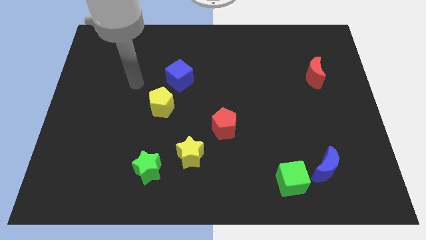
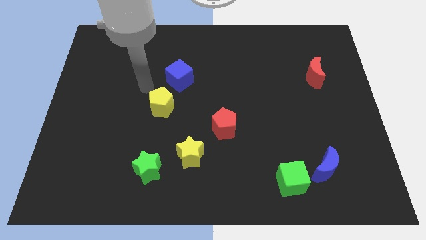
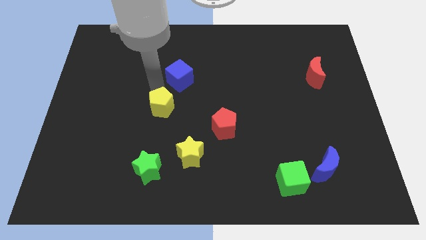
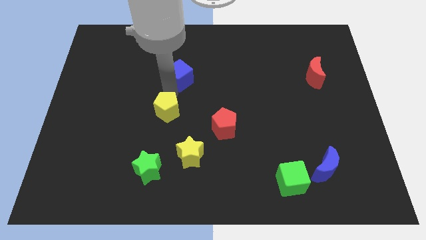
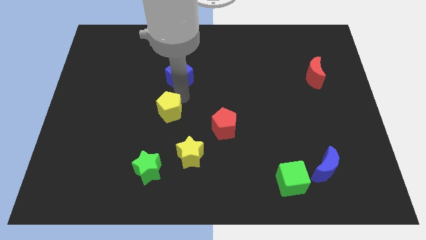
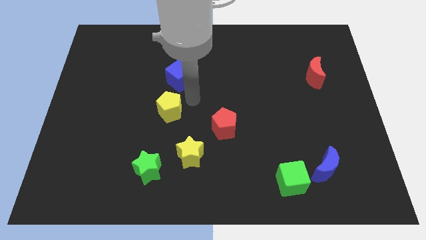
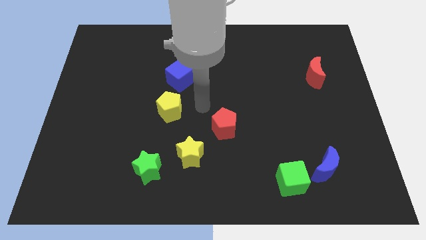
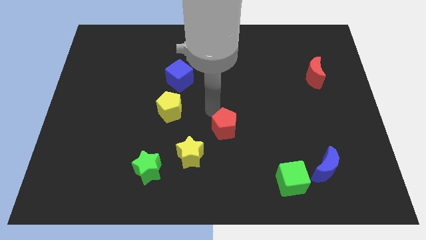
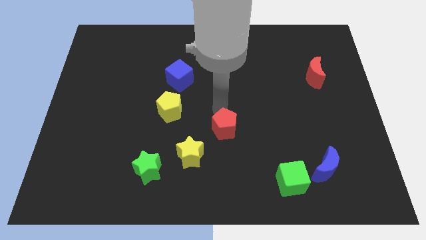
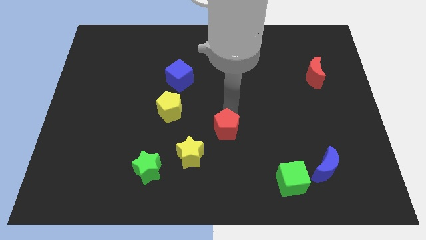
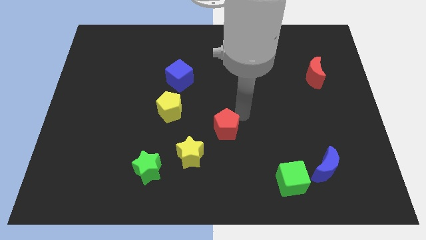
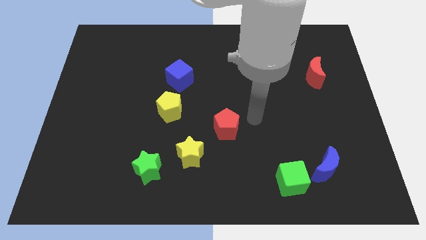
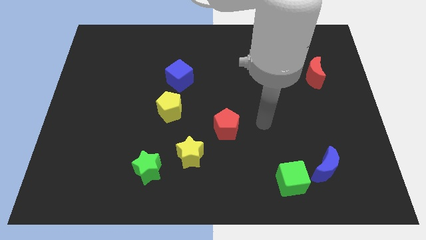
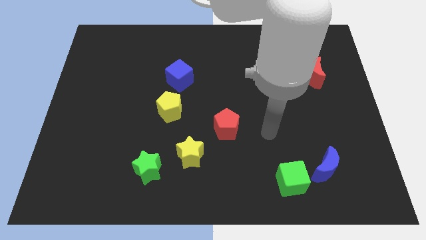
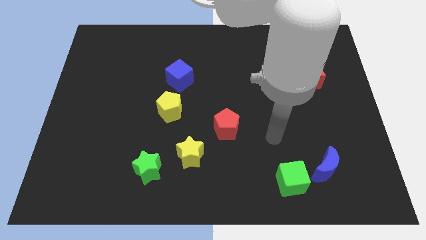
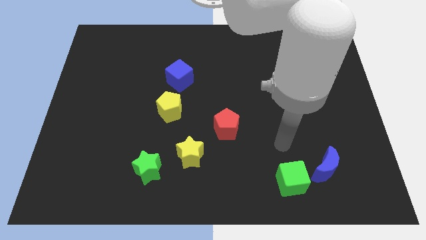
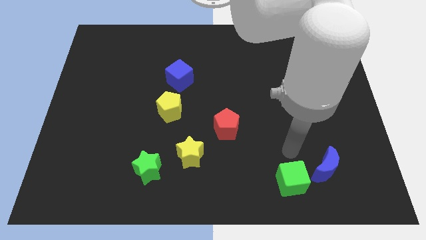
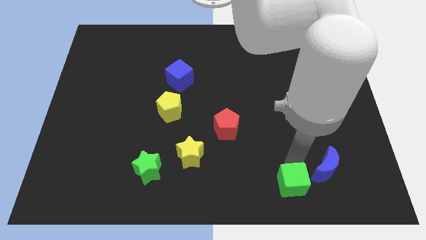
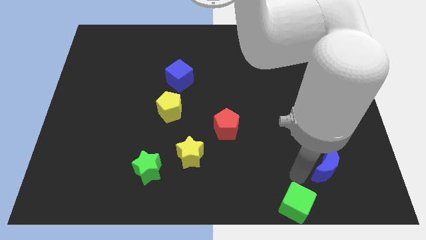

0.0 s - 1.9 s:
separate the blue moon from the green cube

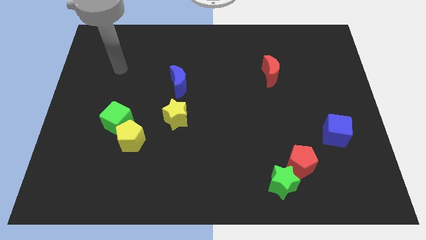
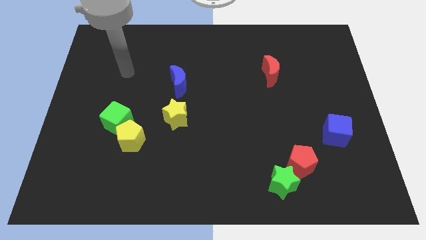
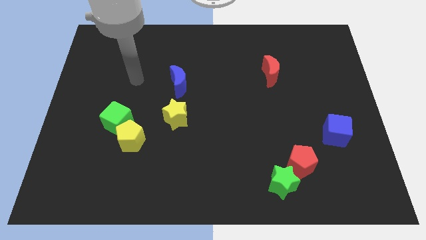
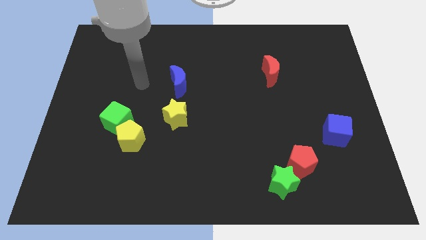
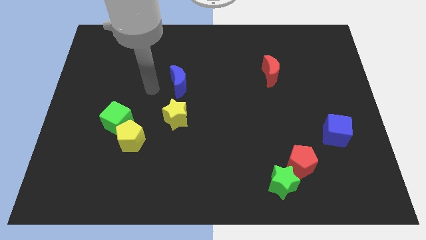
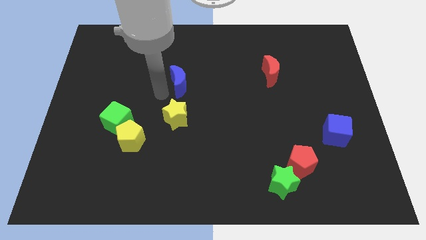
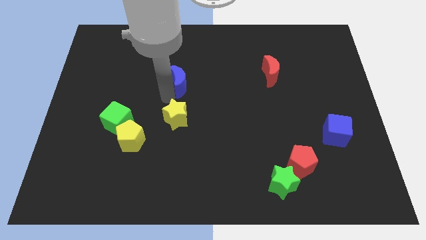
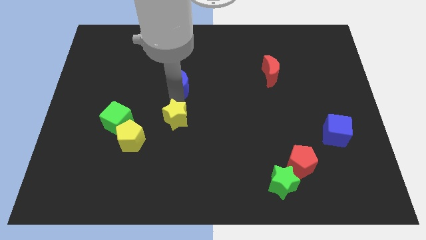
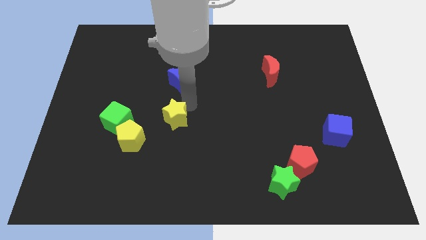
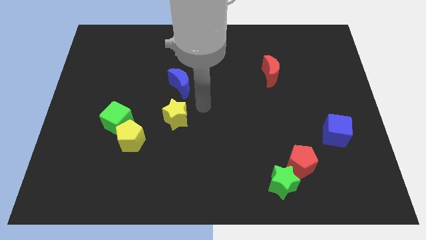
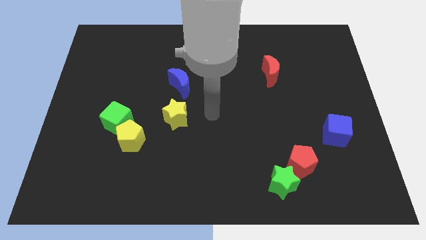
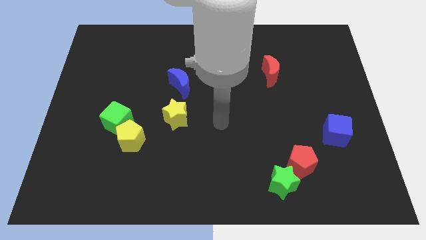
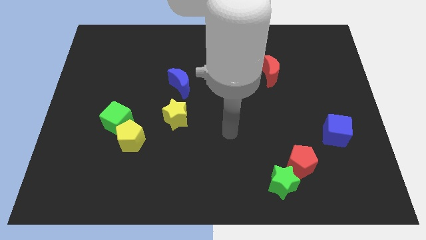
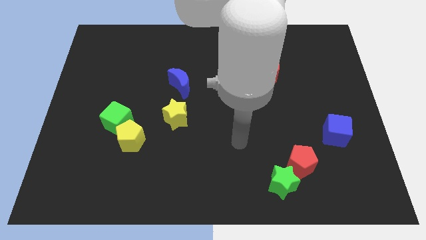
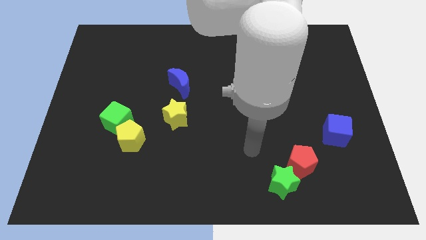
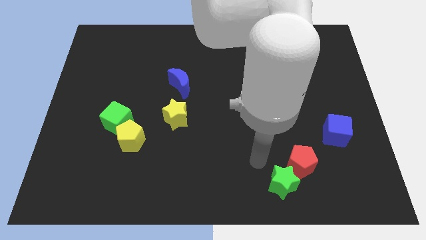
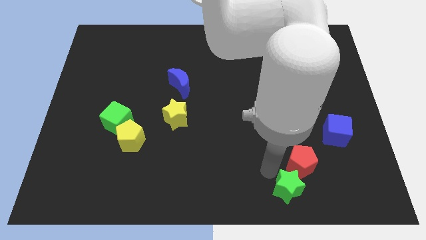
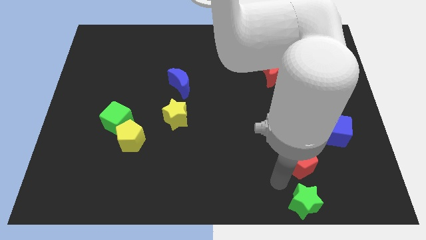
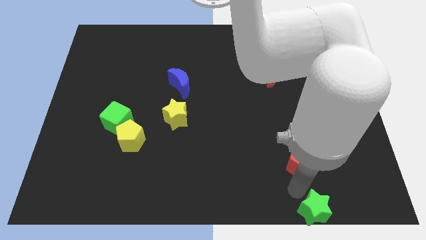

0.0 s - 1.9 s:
separate the red pentagon from the green star

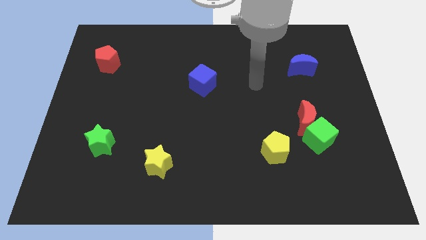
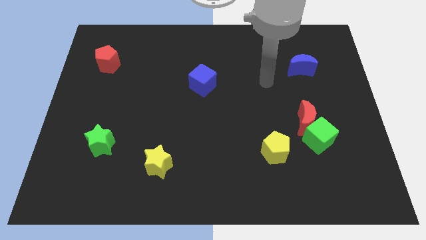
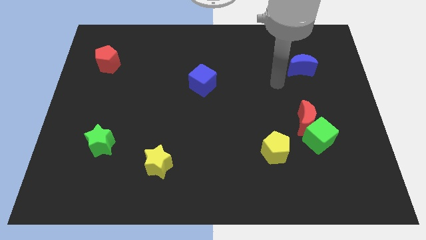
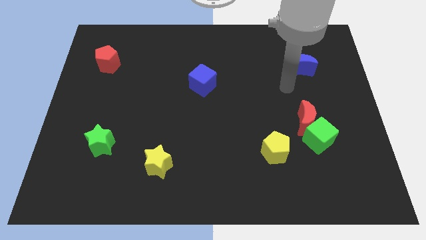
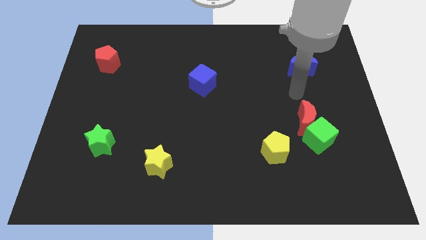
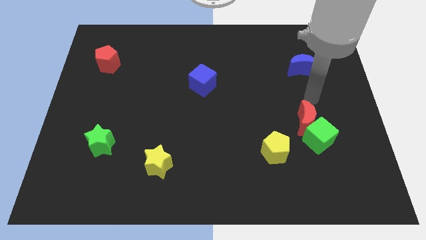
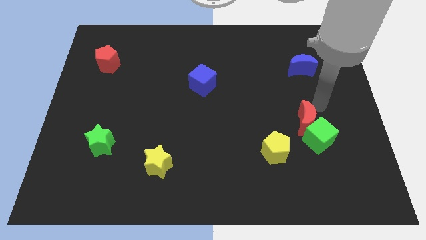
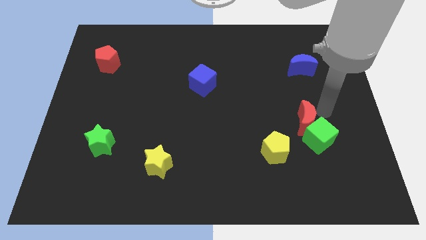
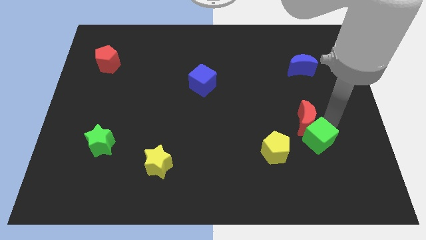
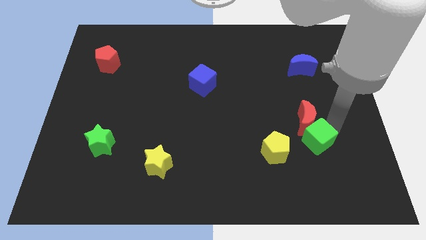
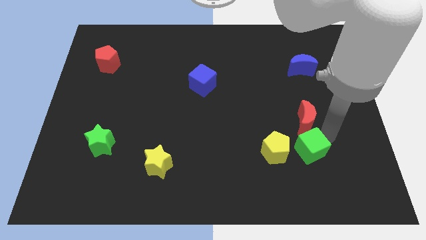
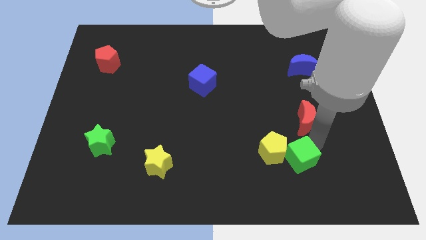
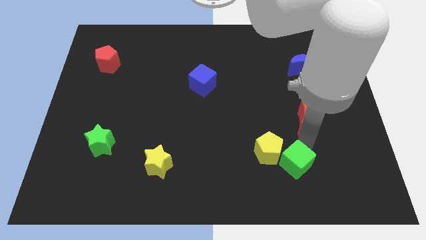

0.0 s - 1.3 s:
move the red moon away from the green cube

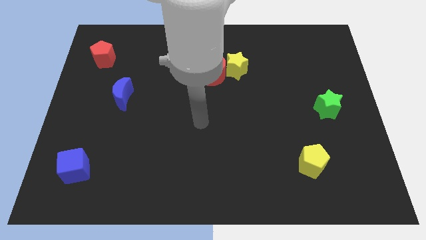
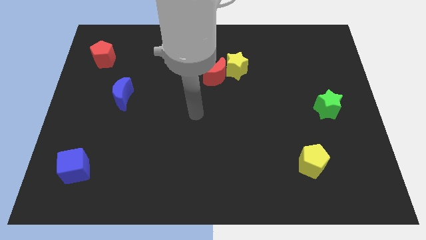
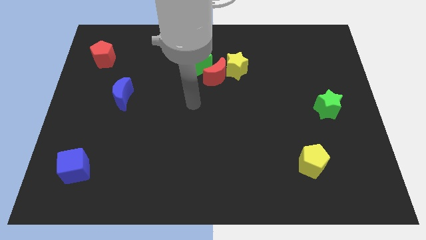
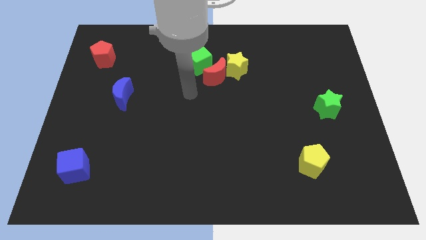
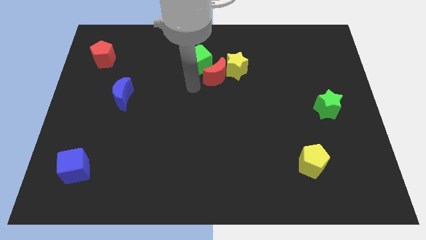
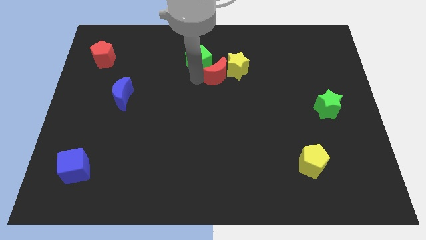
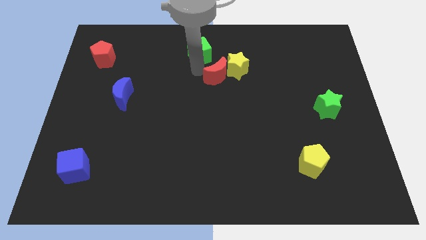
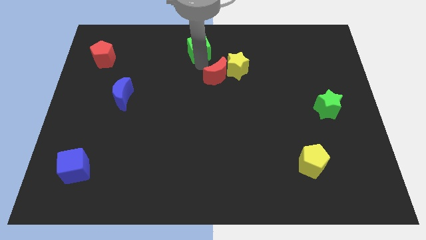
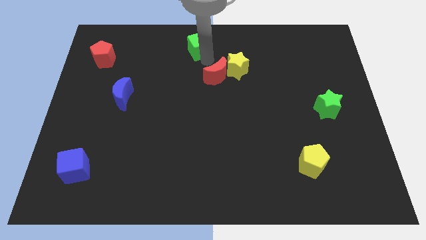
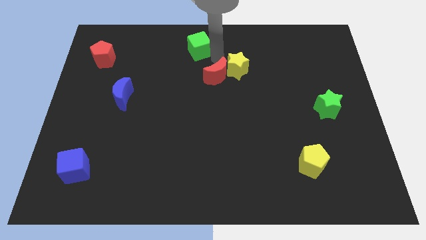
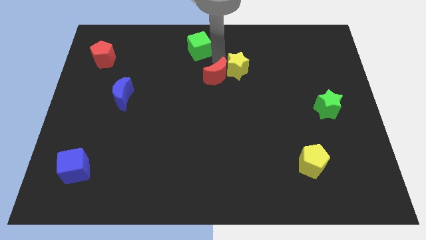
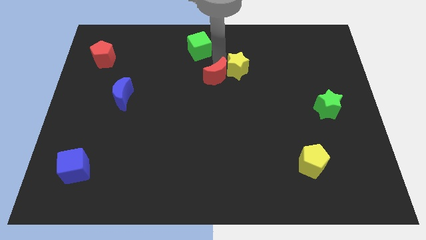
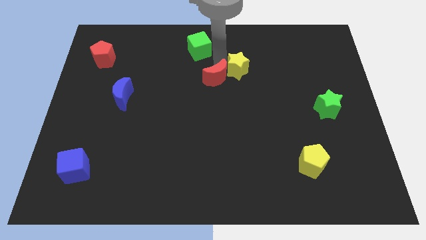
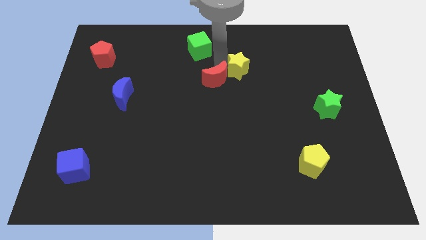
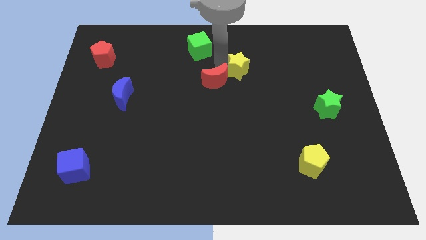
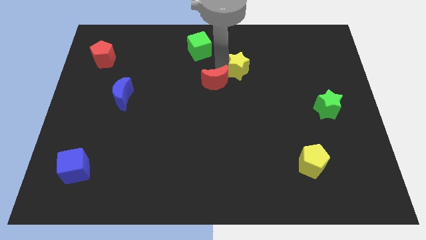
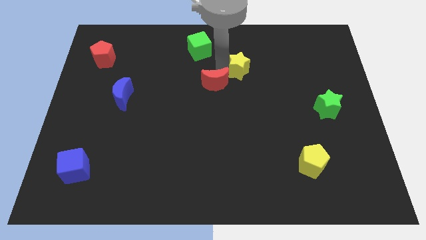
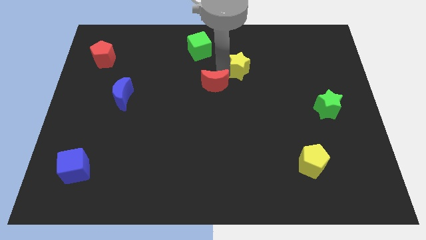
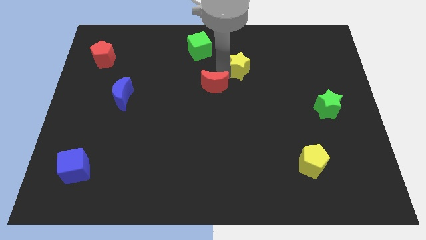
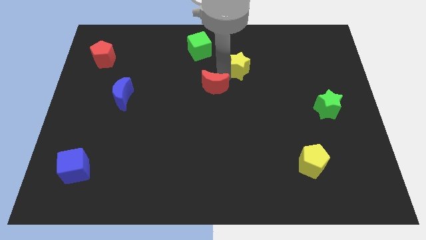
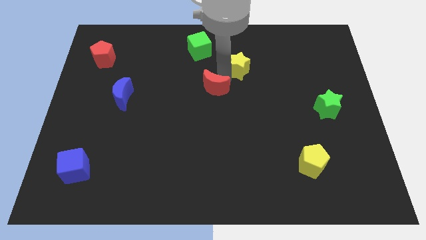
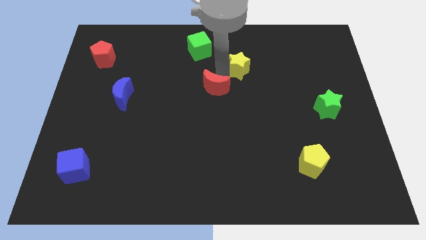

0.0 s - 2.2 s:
move the red moon away from the yellow star and green cube

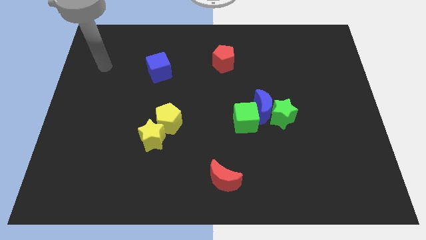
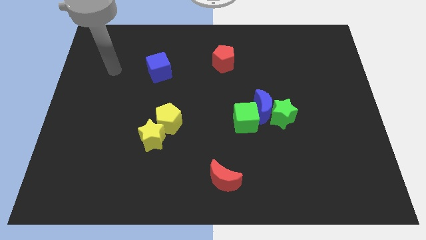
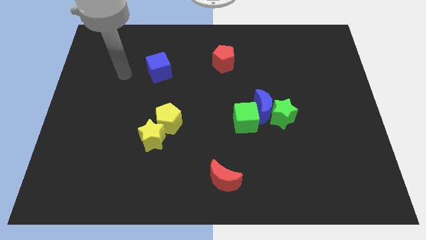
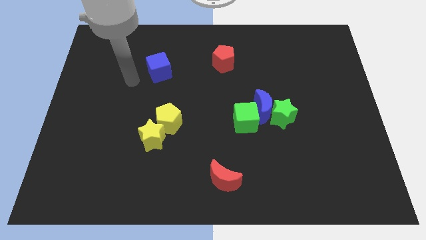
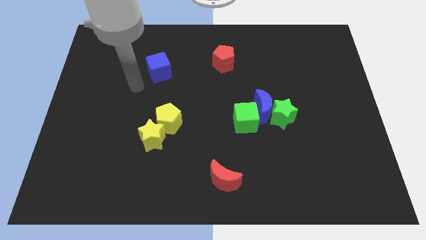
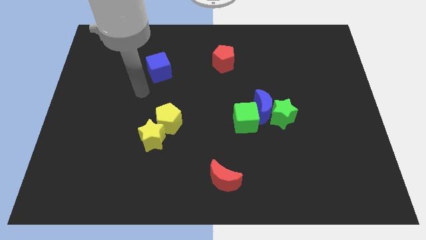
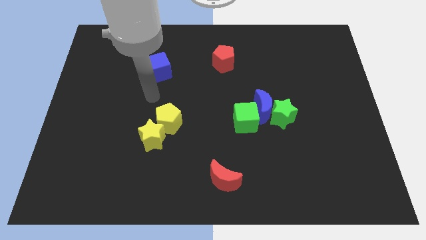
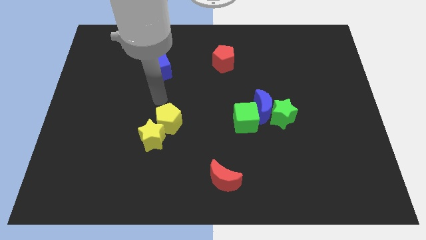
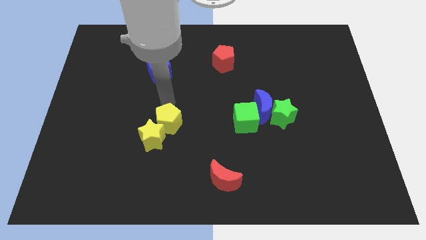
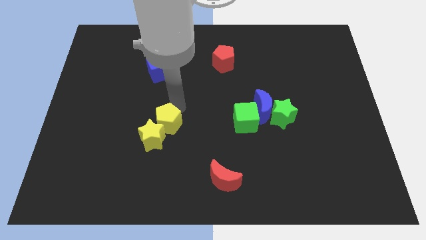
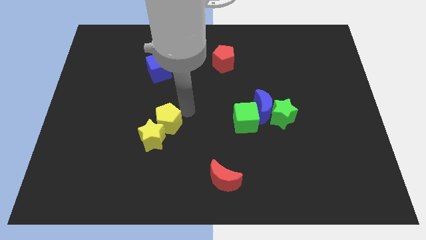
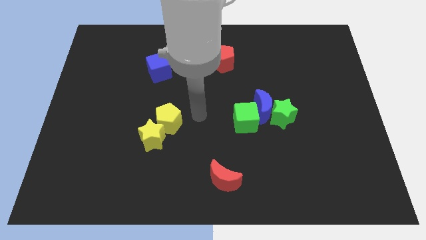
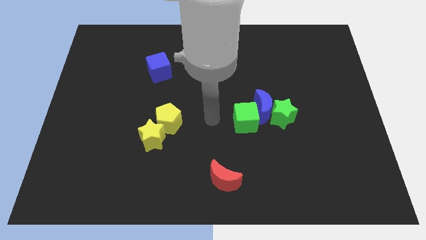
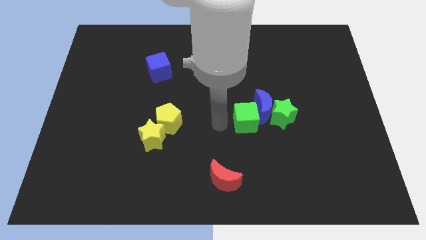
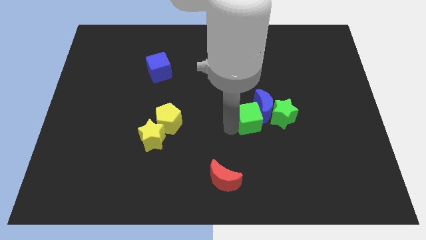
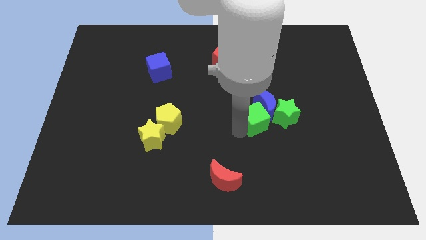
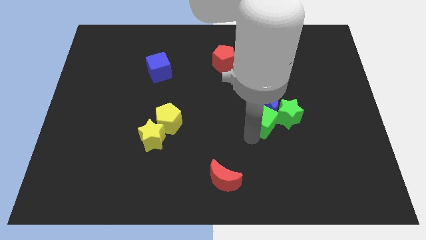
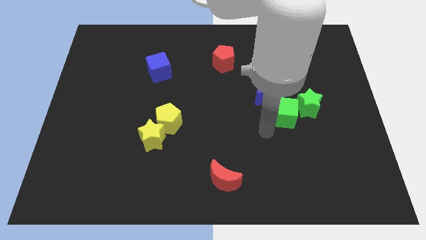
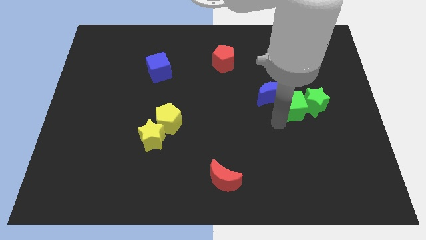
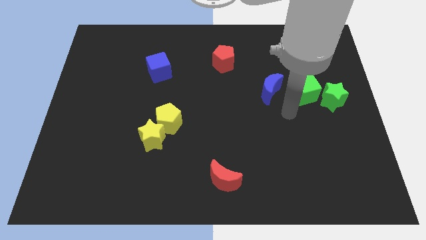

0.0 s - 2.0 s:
move the blue moon away from the green star and green cube
